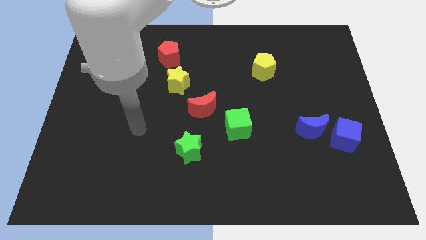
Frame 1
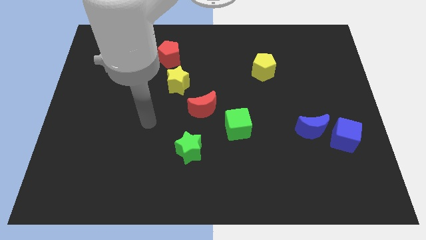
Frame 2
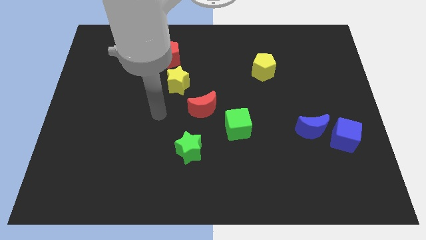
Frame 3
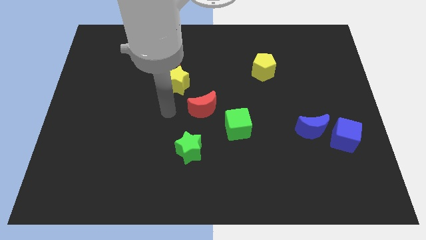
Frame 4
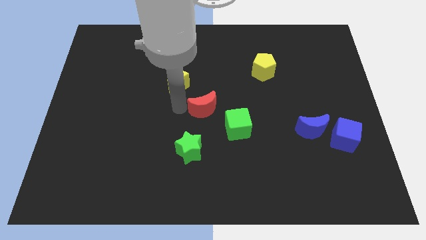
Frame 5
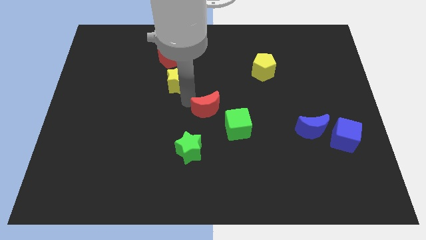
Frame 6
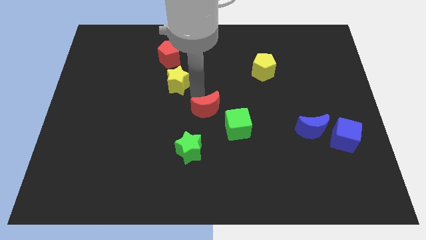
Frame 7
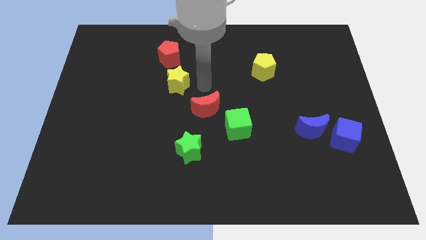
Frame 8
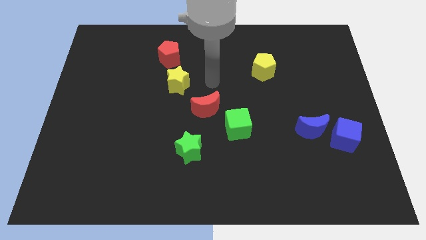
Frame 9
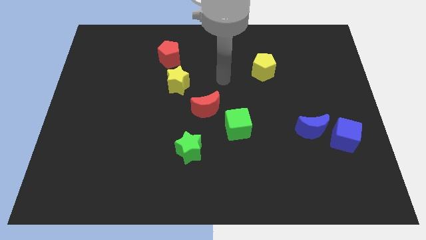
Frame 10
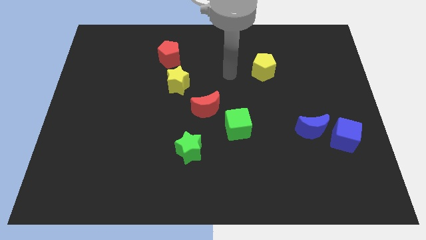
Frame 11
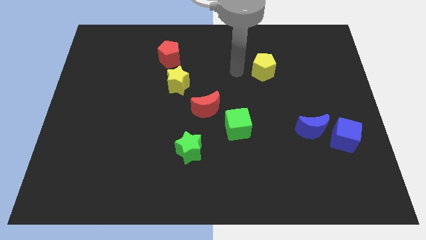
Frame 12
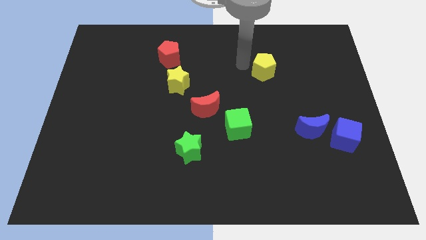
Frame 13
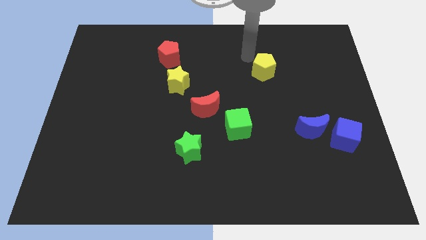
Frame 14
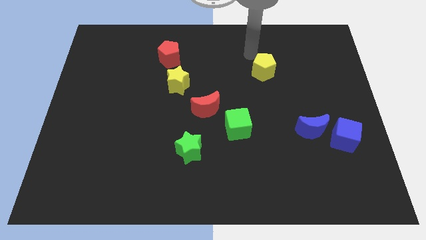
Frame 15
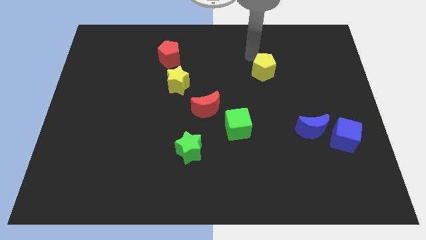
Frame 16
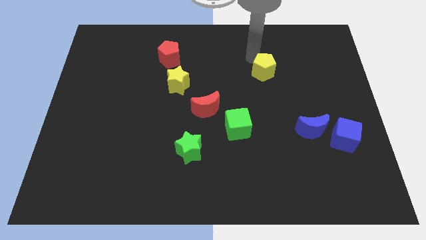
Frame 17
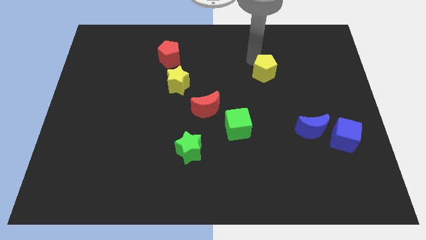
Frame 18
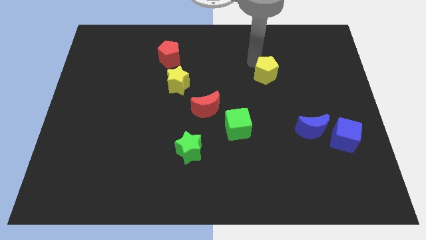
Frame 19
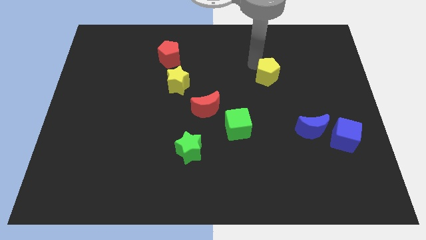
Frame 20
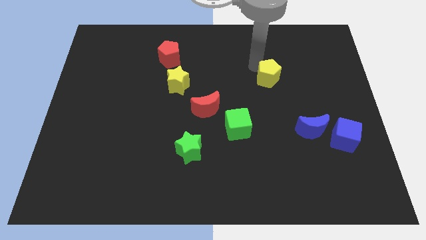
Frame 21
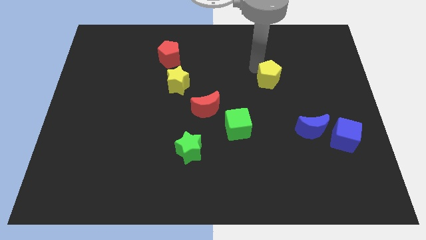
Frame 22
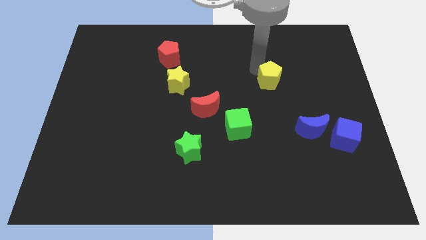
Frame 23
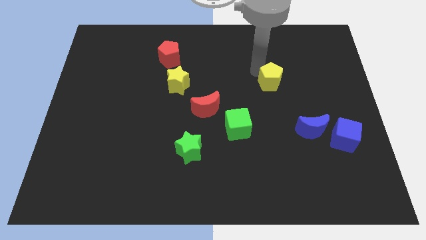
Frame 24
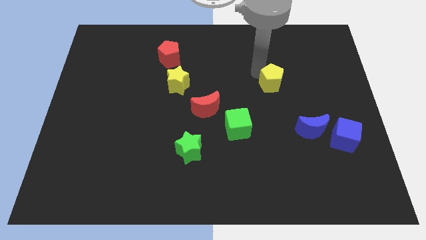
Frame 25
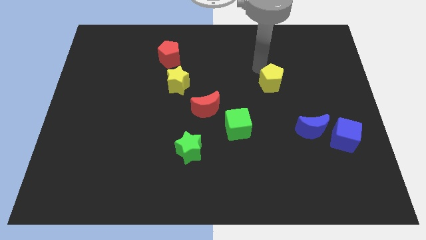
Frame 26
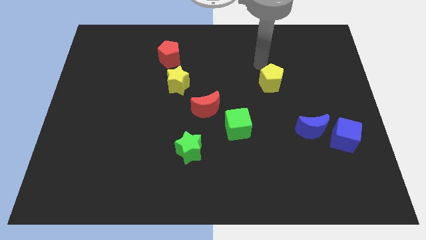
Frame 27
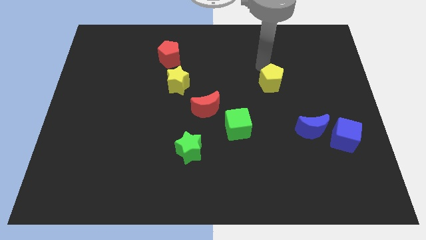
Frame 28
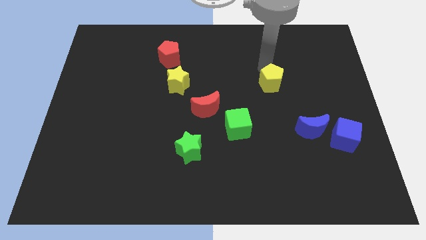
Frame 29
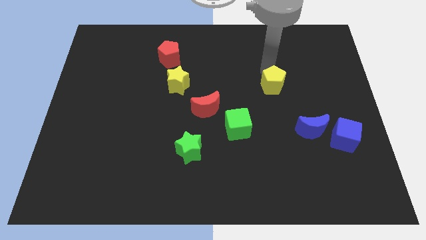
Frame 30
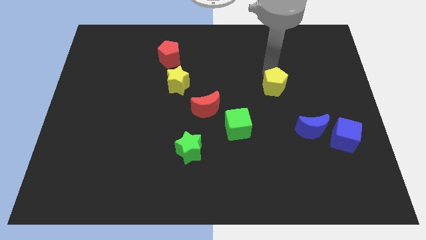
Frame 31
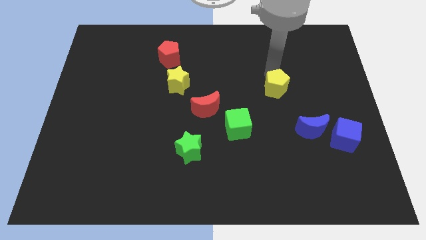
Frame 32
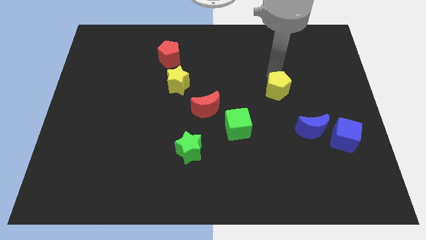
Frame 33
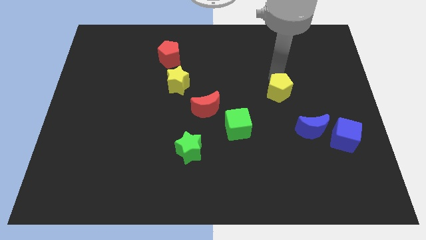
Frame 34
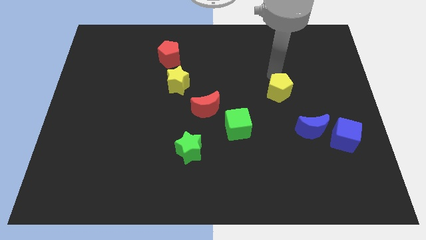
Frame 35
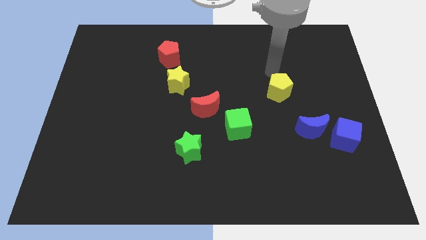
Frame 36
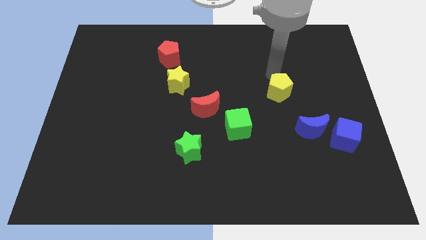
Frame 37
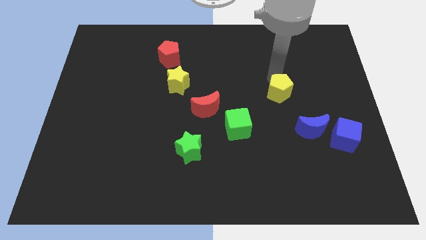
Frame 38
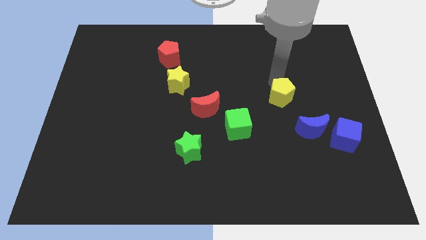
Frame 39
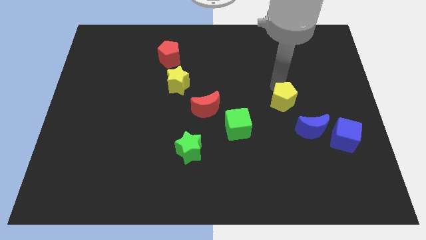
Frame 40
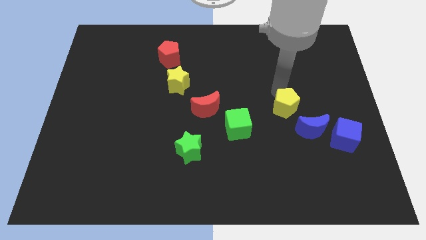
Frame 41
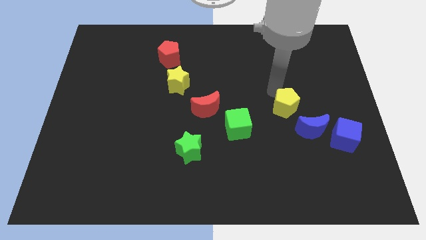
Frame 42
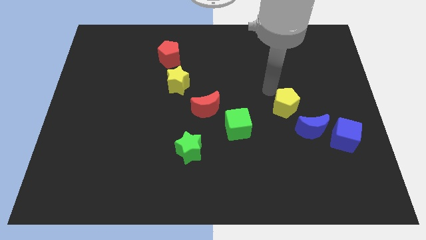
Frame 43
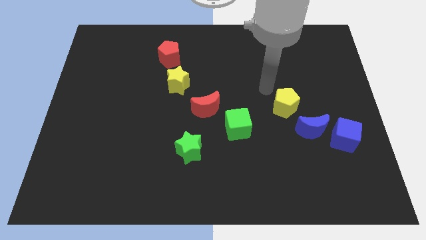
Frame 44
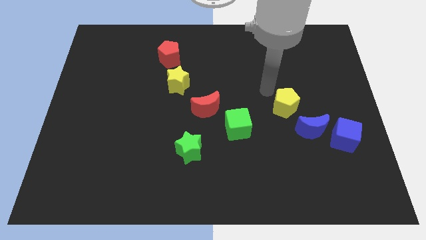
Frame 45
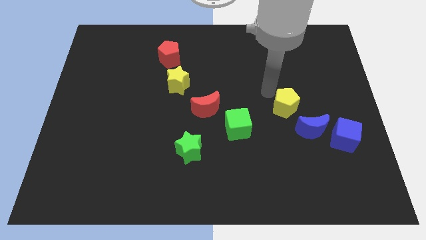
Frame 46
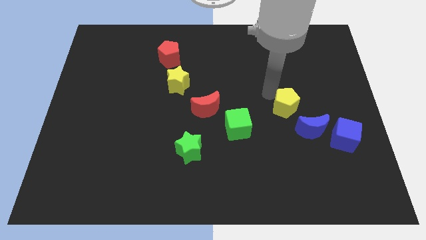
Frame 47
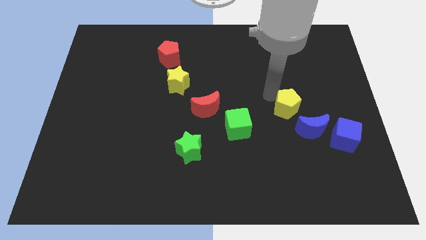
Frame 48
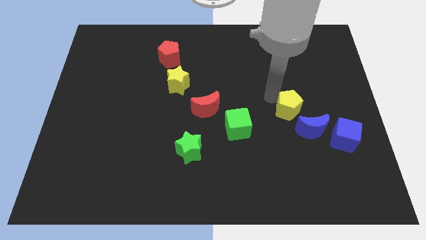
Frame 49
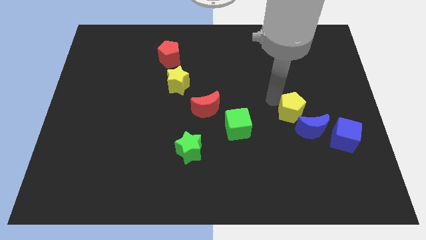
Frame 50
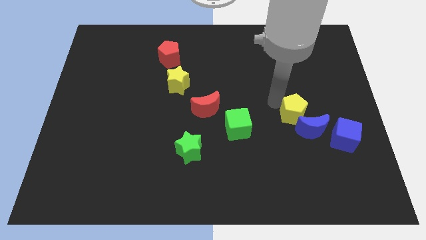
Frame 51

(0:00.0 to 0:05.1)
put the yellow pentagon close to the blue moon

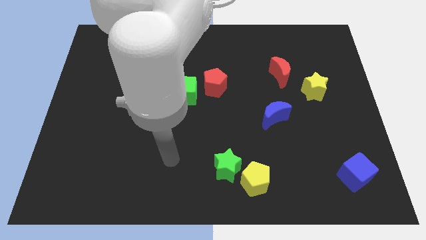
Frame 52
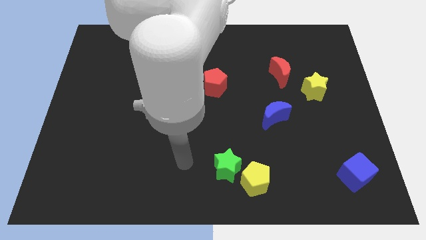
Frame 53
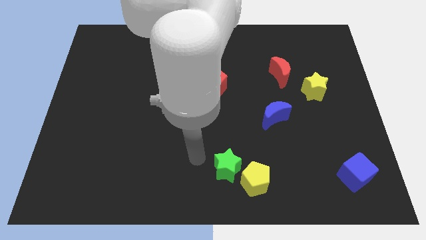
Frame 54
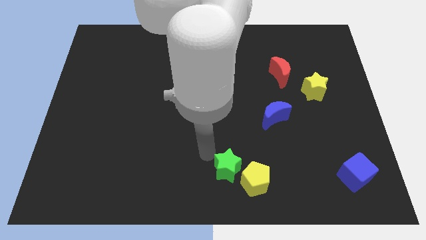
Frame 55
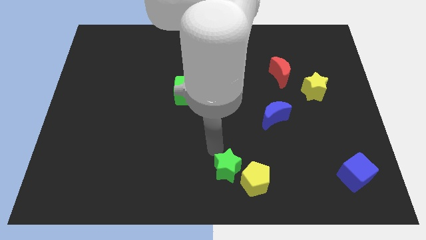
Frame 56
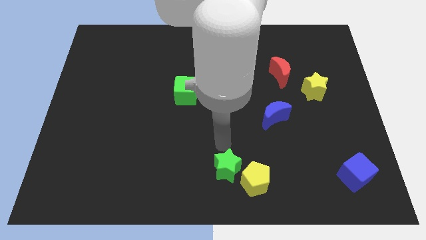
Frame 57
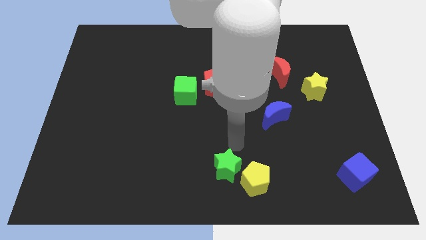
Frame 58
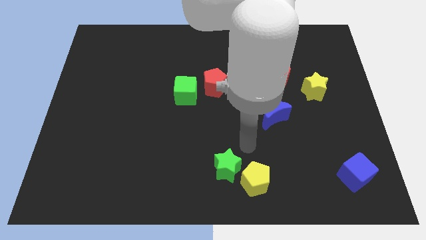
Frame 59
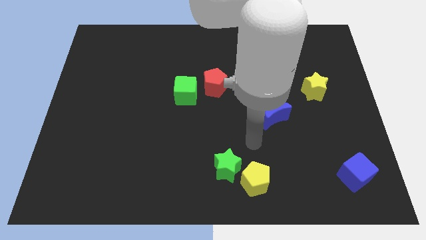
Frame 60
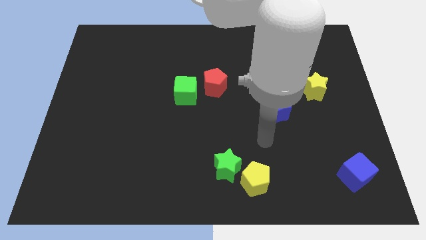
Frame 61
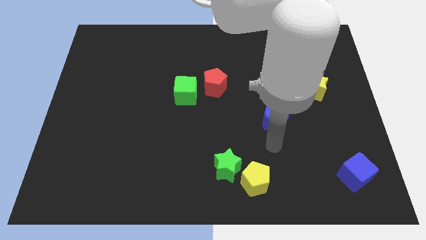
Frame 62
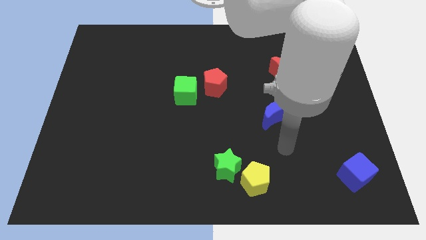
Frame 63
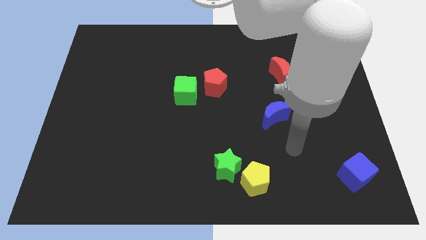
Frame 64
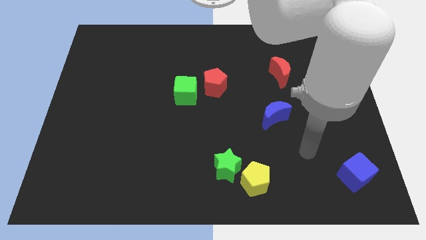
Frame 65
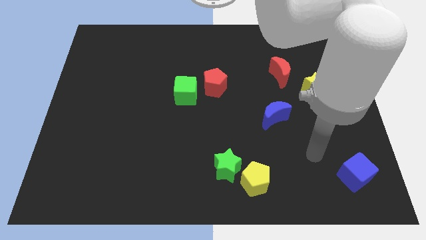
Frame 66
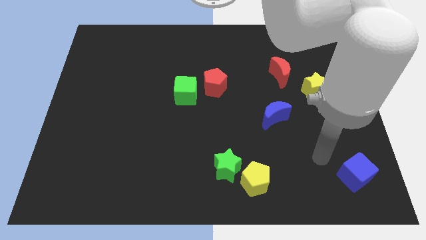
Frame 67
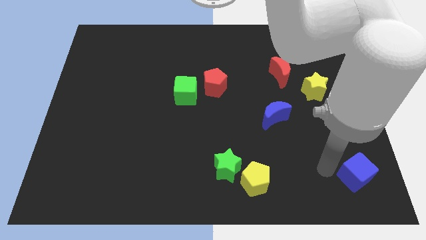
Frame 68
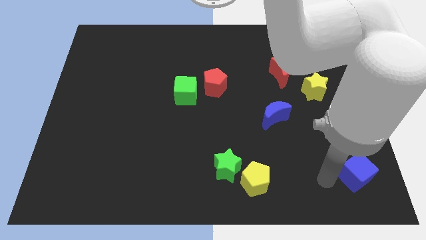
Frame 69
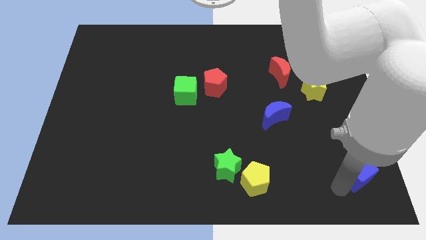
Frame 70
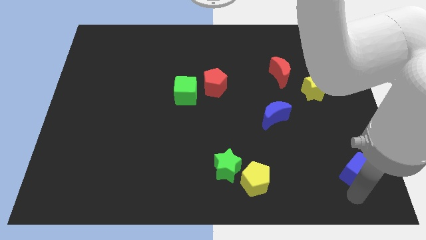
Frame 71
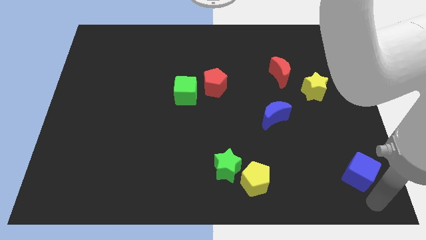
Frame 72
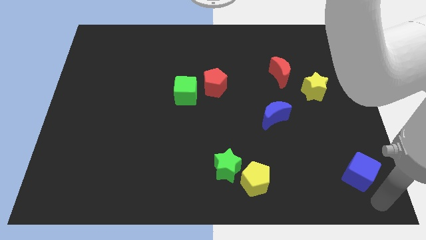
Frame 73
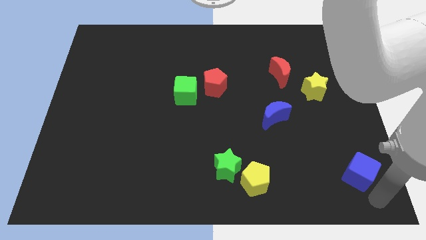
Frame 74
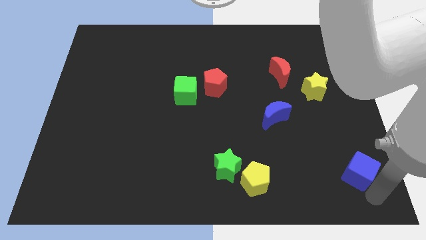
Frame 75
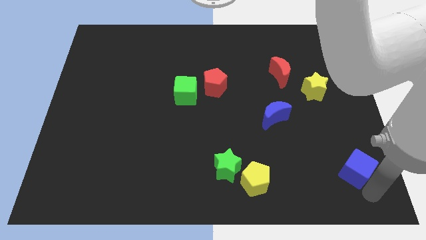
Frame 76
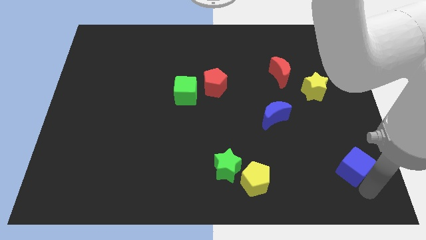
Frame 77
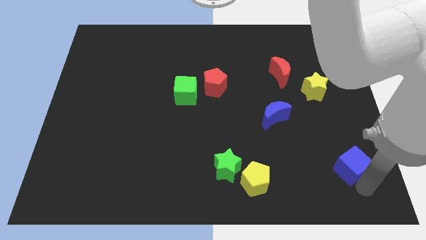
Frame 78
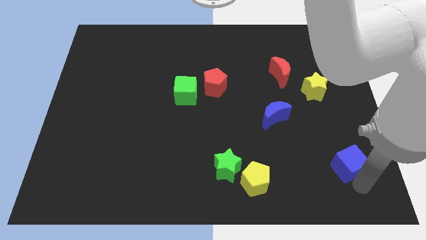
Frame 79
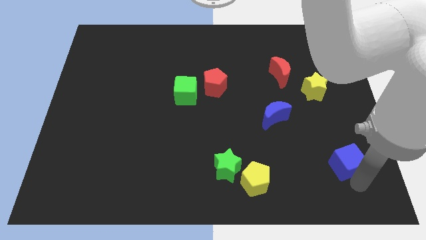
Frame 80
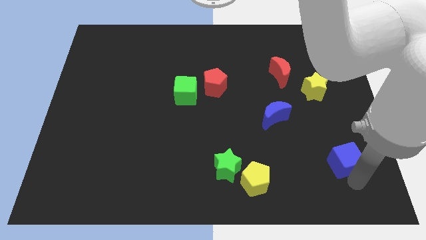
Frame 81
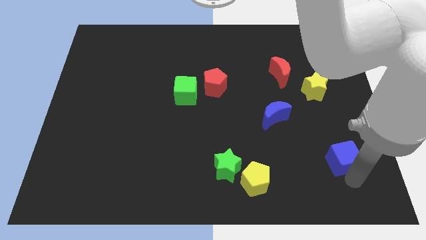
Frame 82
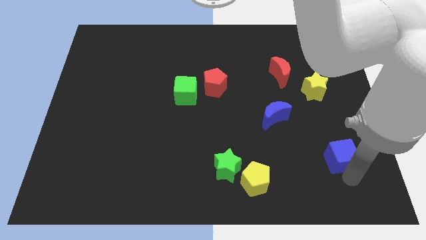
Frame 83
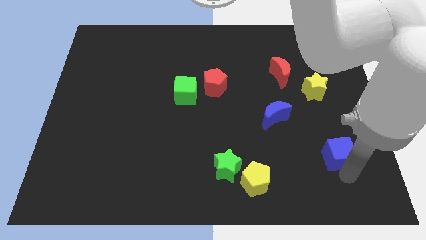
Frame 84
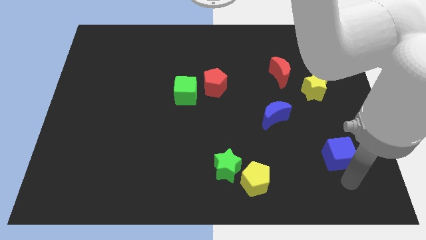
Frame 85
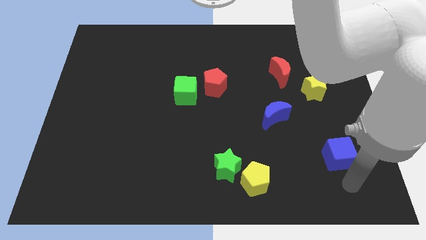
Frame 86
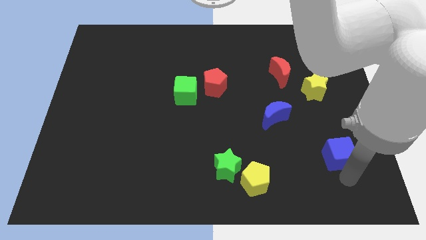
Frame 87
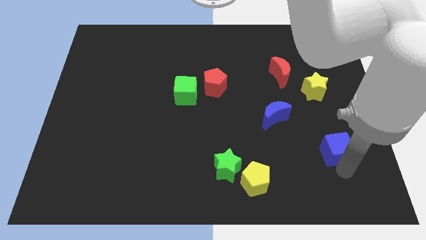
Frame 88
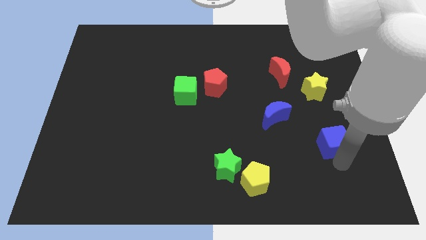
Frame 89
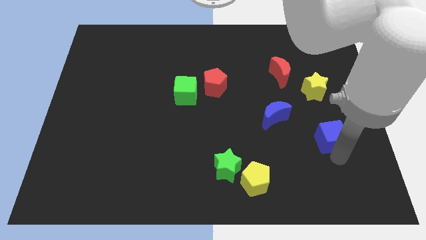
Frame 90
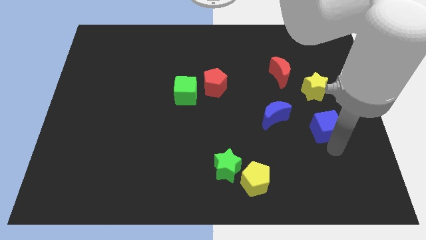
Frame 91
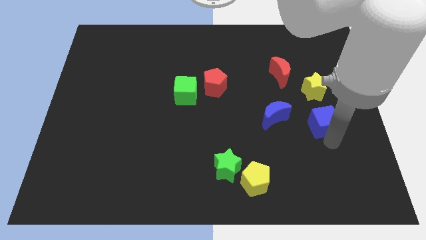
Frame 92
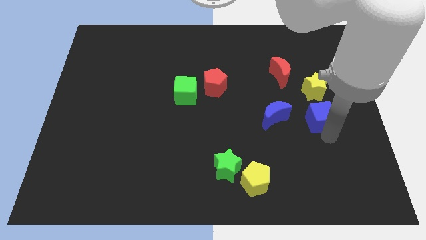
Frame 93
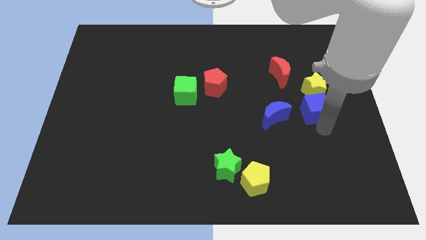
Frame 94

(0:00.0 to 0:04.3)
slide the blue cube to the yellow star
